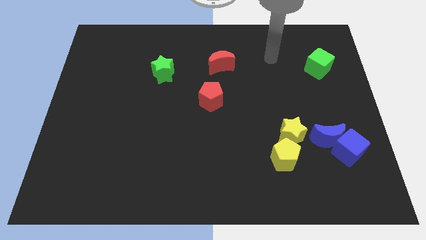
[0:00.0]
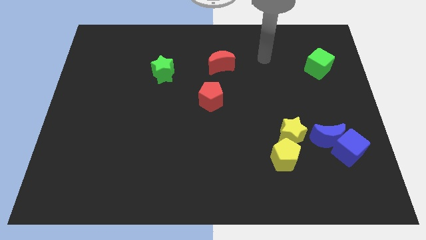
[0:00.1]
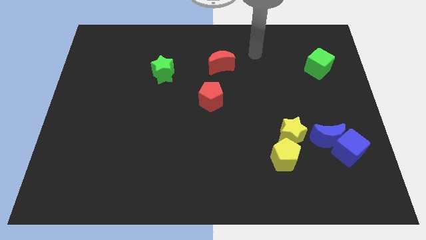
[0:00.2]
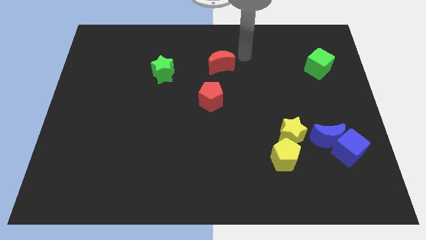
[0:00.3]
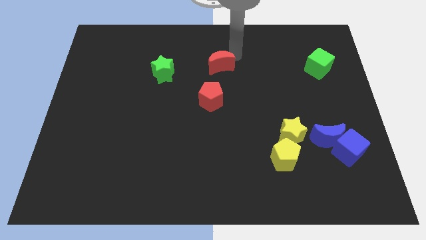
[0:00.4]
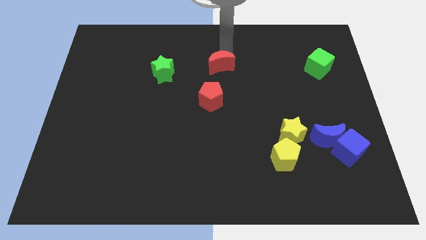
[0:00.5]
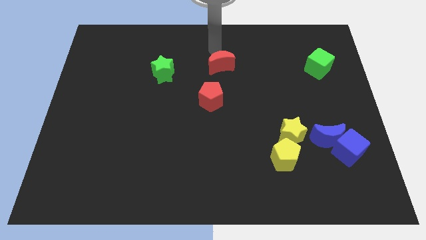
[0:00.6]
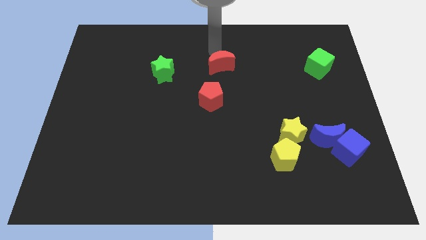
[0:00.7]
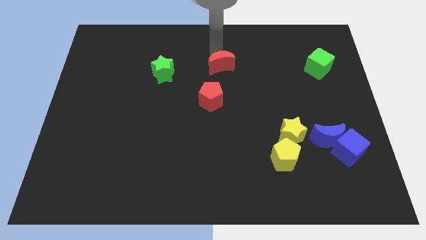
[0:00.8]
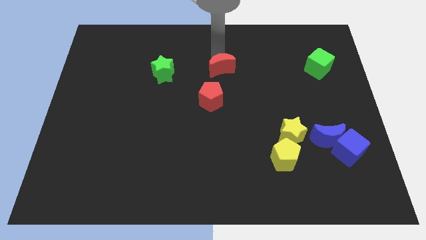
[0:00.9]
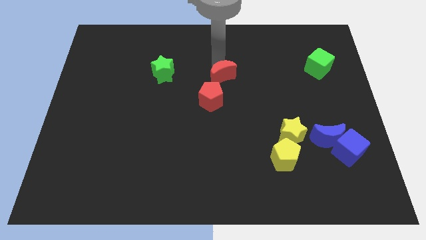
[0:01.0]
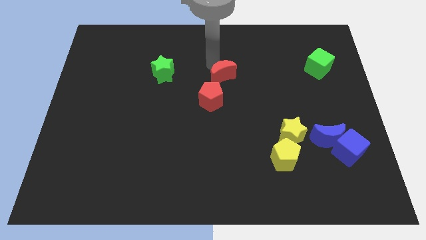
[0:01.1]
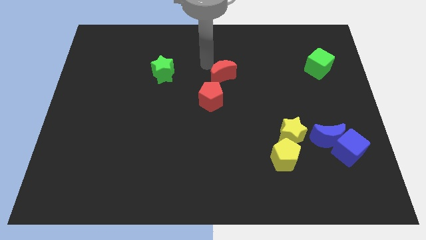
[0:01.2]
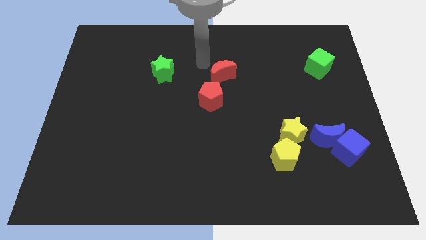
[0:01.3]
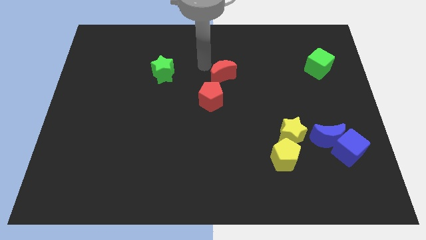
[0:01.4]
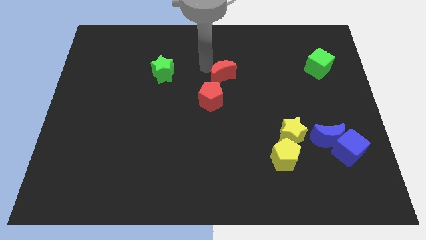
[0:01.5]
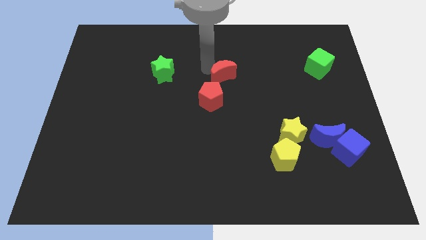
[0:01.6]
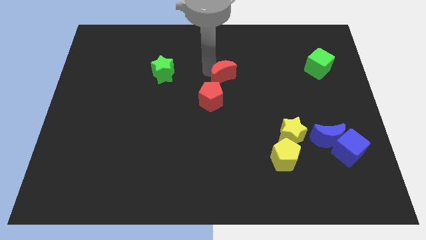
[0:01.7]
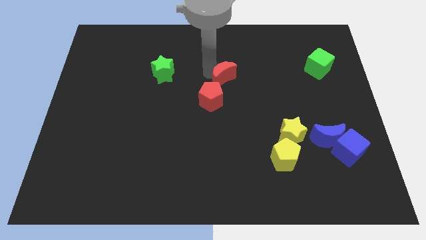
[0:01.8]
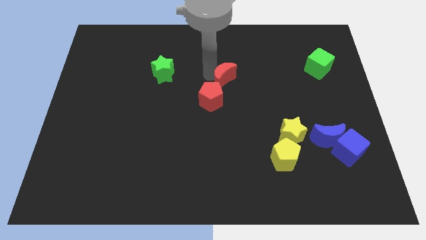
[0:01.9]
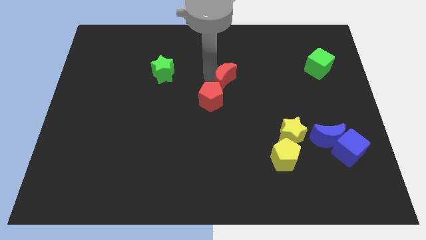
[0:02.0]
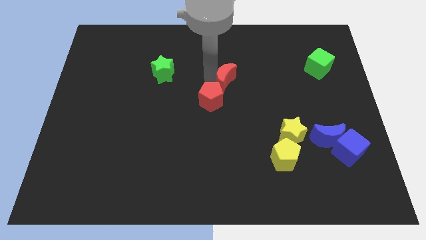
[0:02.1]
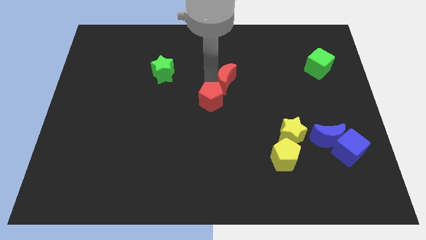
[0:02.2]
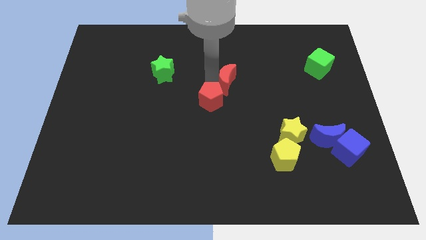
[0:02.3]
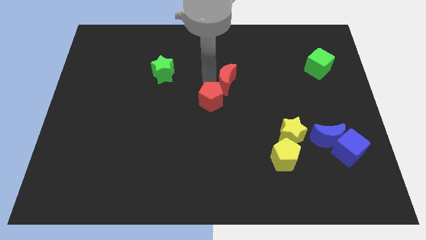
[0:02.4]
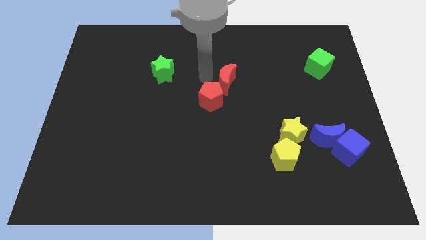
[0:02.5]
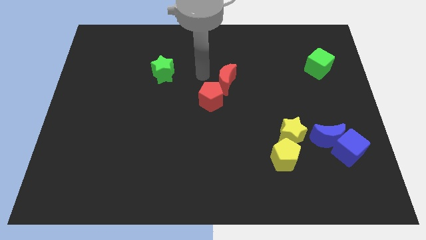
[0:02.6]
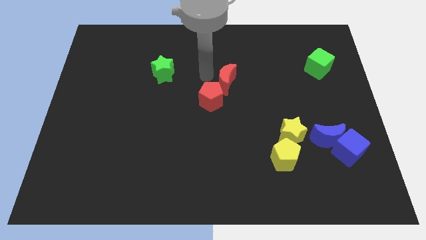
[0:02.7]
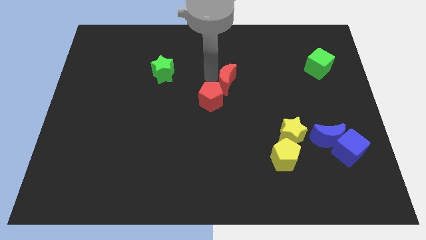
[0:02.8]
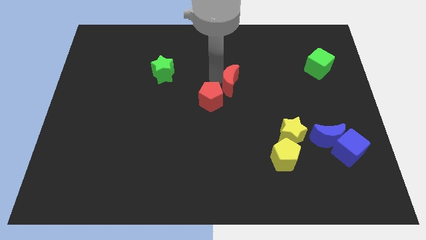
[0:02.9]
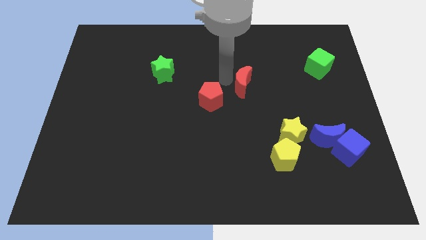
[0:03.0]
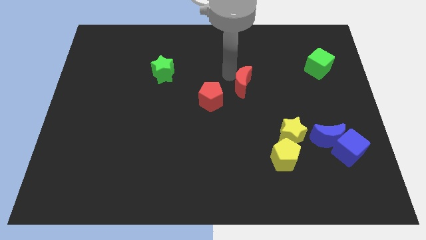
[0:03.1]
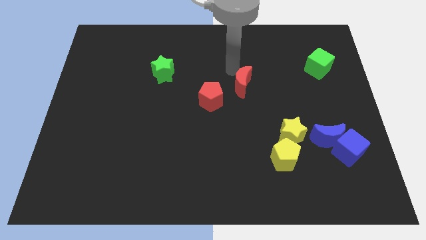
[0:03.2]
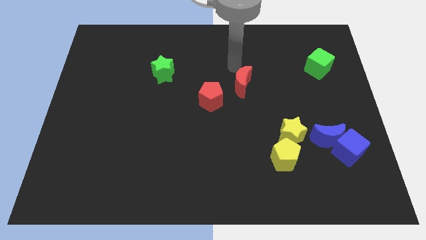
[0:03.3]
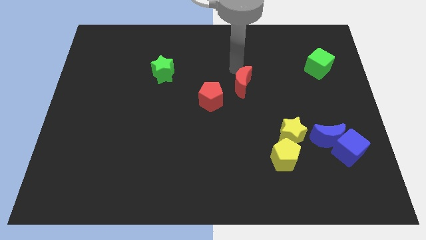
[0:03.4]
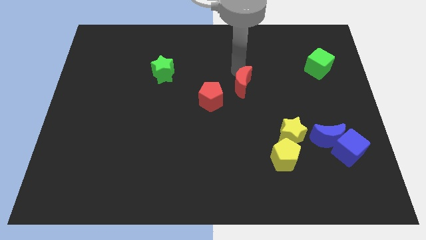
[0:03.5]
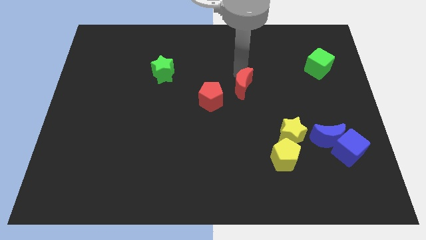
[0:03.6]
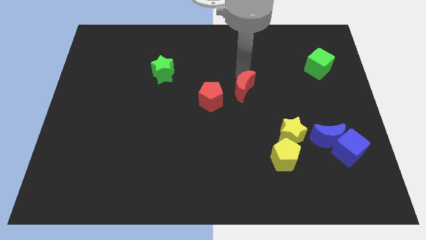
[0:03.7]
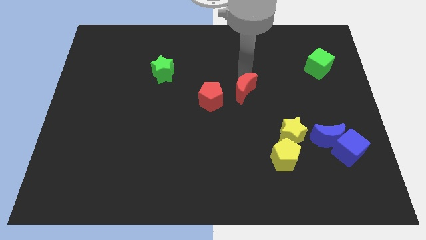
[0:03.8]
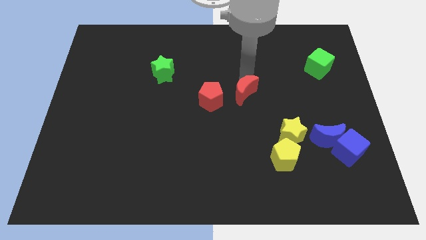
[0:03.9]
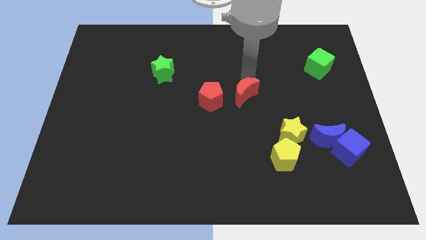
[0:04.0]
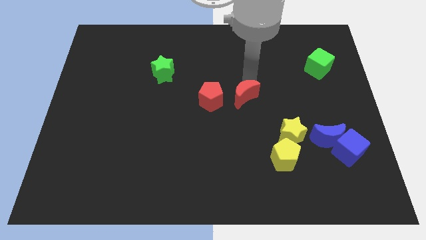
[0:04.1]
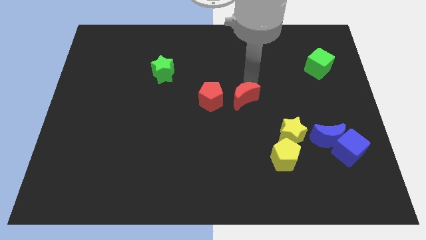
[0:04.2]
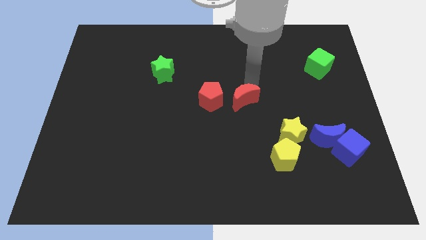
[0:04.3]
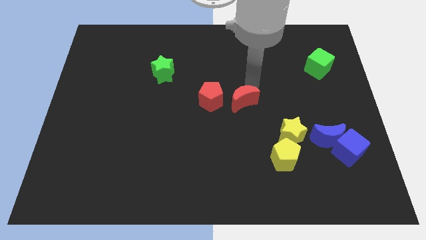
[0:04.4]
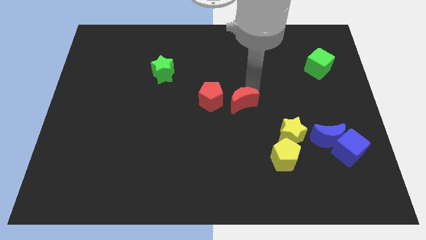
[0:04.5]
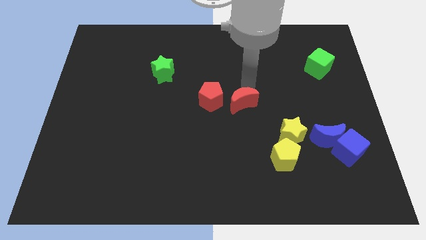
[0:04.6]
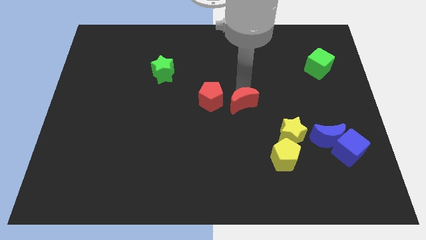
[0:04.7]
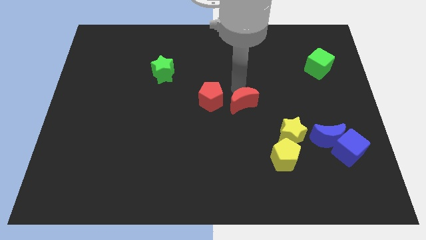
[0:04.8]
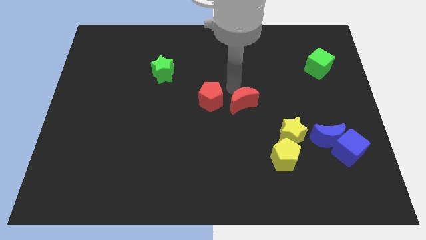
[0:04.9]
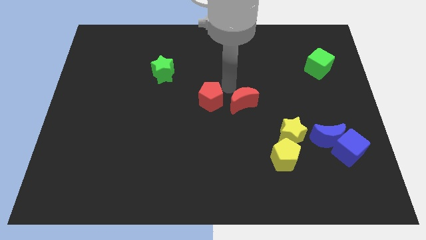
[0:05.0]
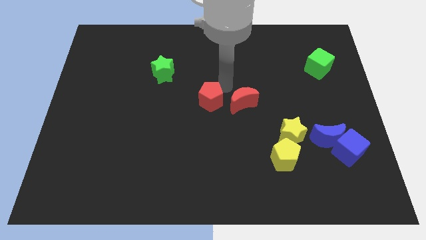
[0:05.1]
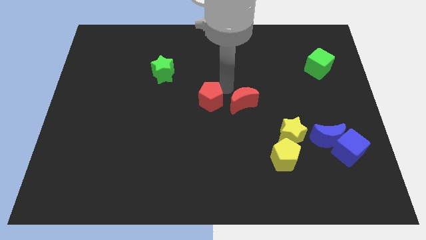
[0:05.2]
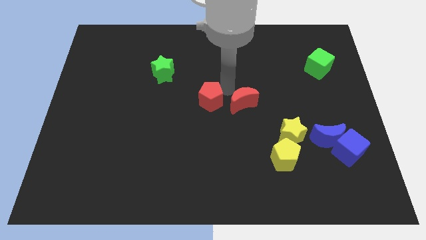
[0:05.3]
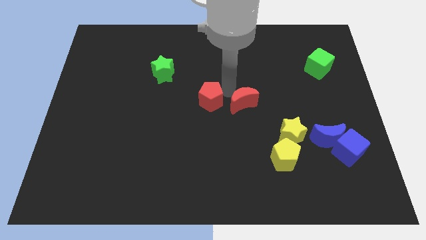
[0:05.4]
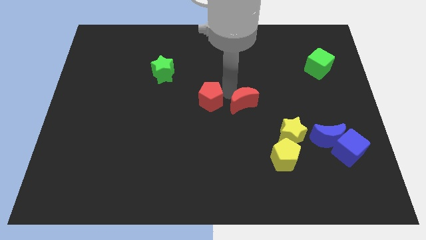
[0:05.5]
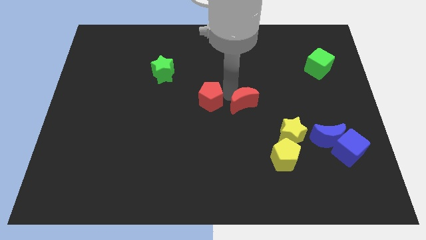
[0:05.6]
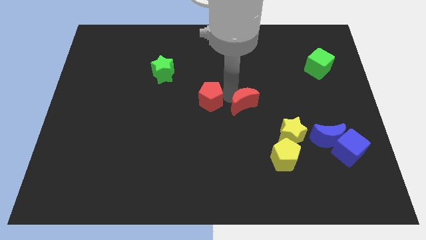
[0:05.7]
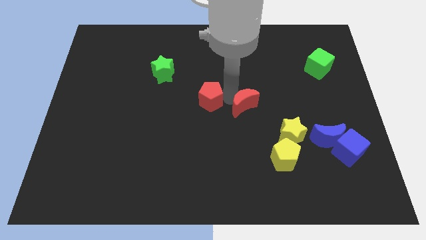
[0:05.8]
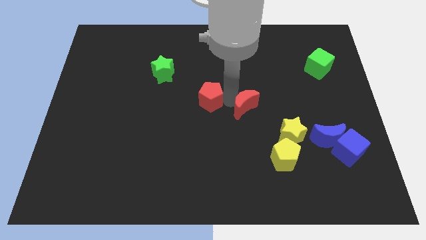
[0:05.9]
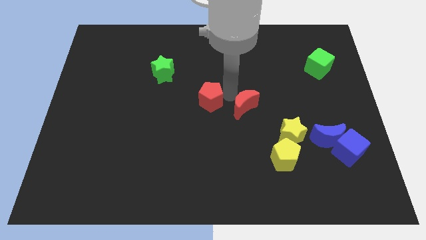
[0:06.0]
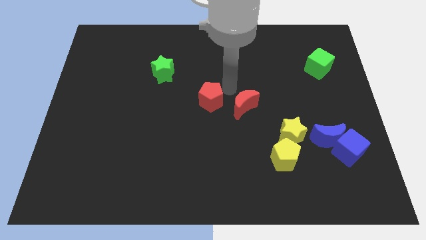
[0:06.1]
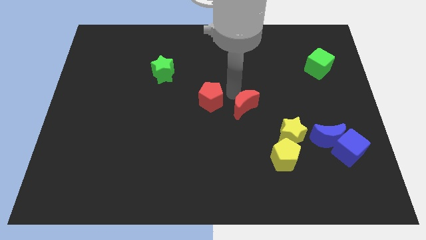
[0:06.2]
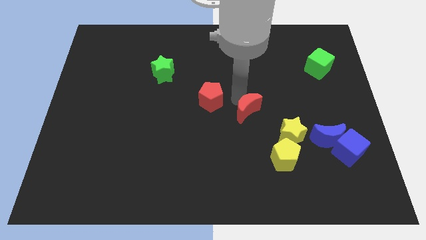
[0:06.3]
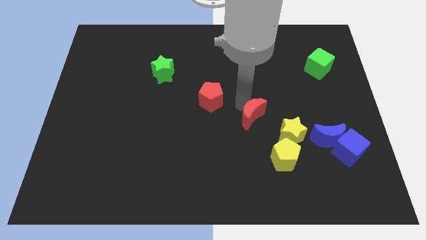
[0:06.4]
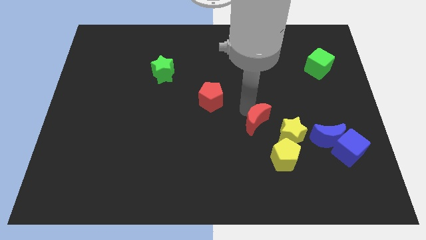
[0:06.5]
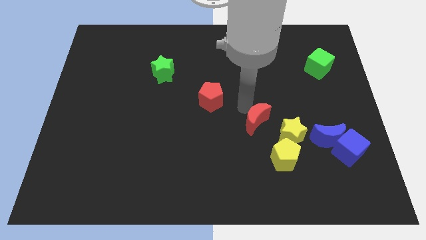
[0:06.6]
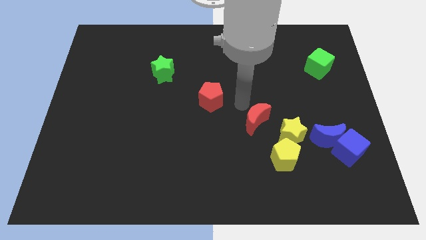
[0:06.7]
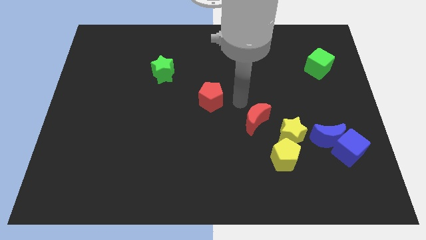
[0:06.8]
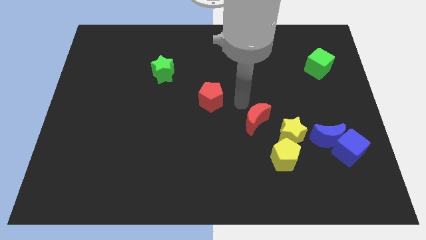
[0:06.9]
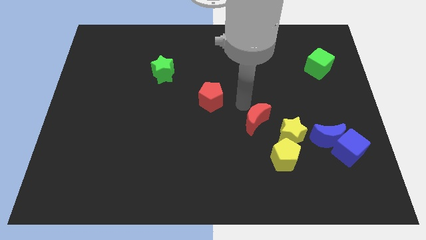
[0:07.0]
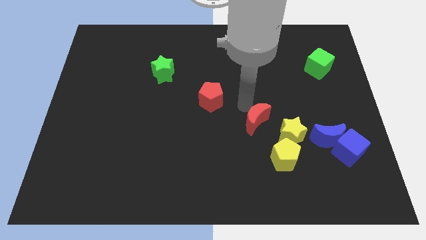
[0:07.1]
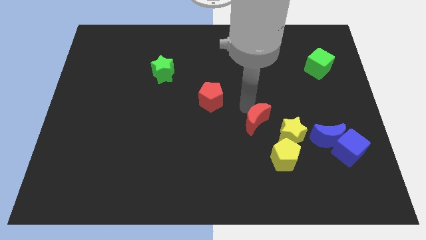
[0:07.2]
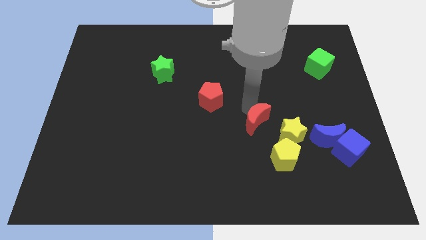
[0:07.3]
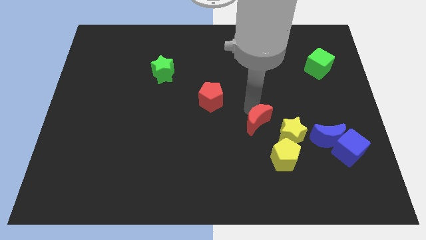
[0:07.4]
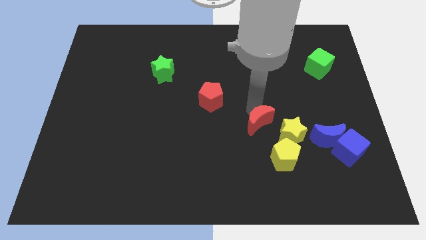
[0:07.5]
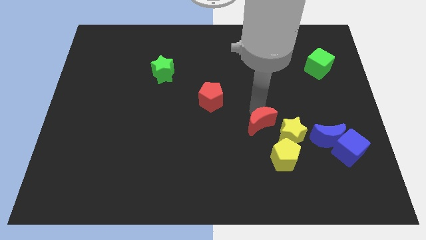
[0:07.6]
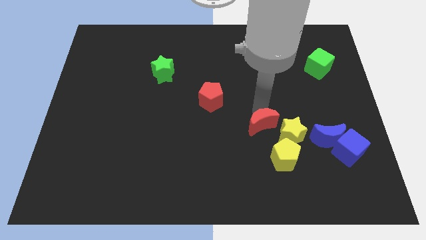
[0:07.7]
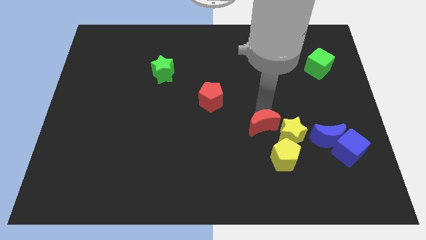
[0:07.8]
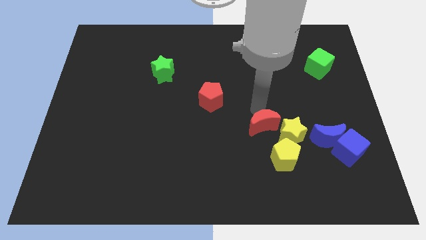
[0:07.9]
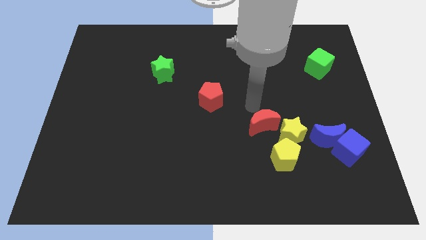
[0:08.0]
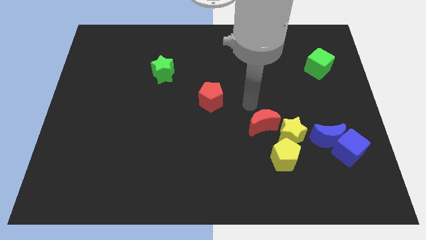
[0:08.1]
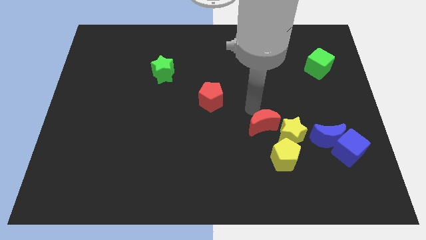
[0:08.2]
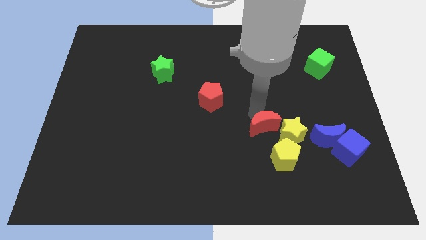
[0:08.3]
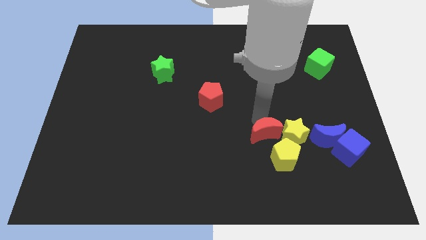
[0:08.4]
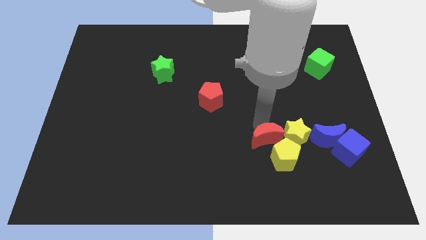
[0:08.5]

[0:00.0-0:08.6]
slide the red moon to the yellow pentagon
